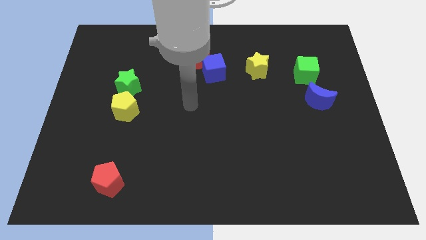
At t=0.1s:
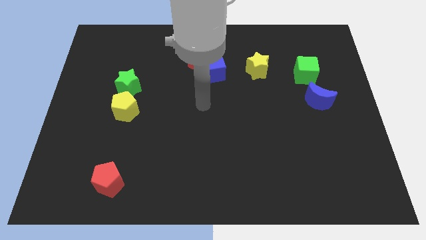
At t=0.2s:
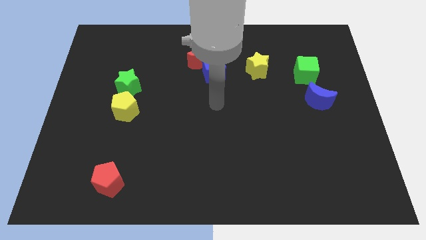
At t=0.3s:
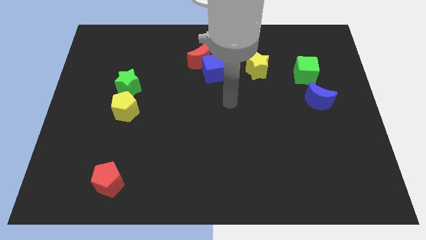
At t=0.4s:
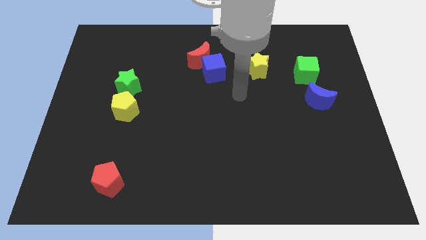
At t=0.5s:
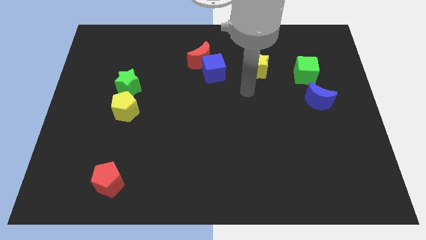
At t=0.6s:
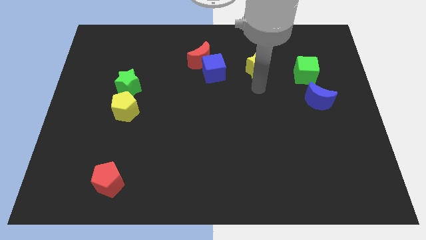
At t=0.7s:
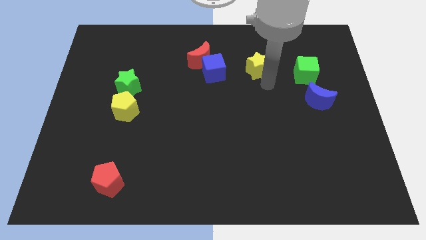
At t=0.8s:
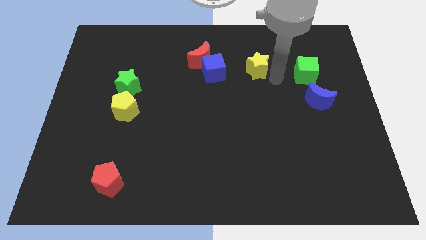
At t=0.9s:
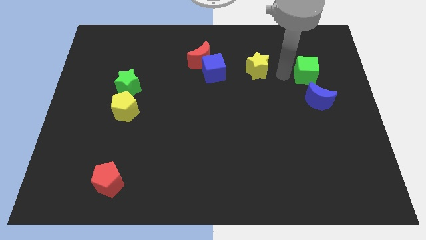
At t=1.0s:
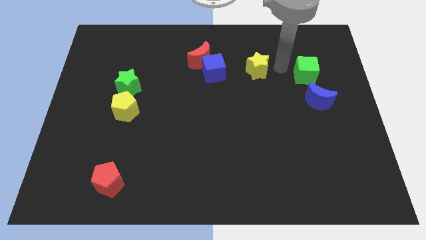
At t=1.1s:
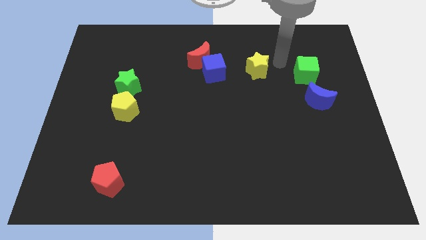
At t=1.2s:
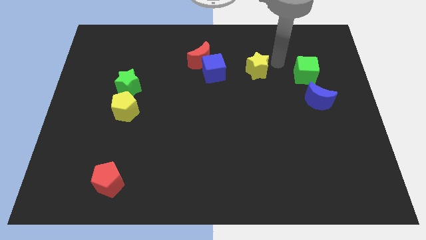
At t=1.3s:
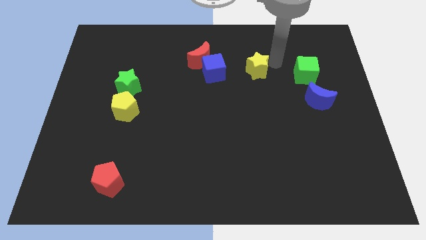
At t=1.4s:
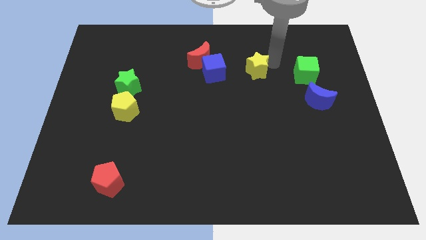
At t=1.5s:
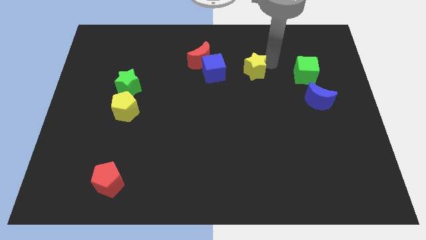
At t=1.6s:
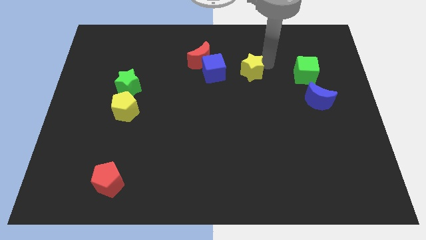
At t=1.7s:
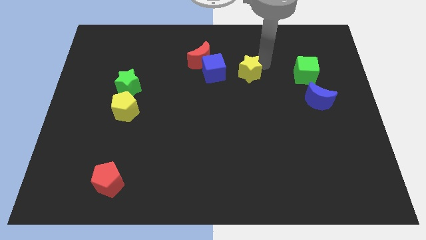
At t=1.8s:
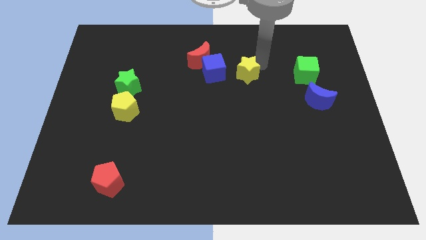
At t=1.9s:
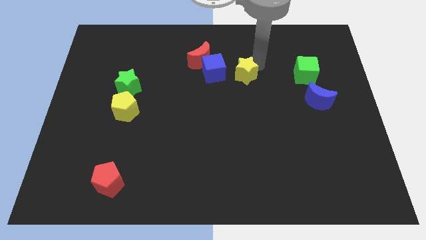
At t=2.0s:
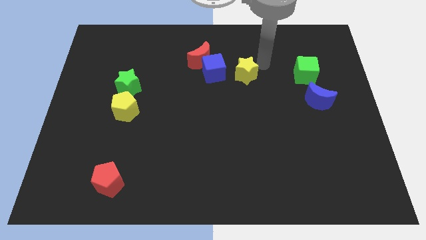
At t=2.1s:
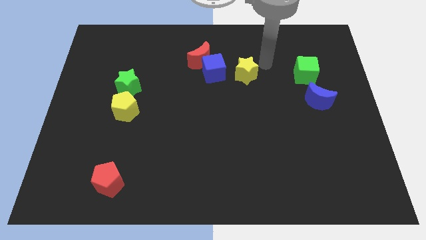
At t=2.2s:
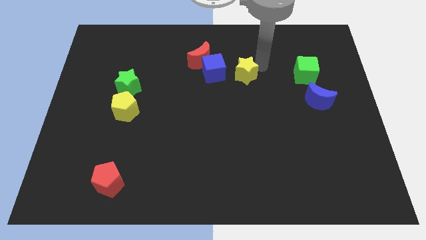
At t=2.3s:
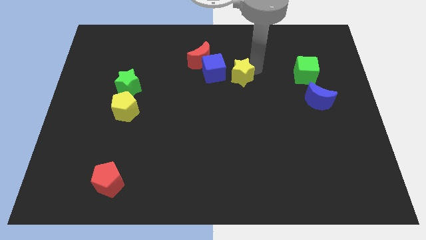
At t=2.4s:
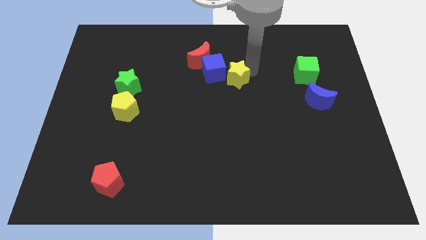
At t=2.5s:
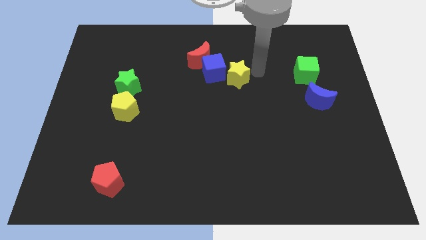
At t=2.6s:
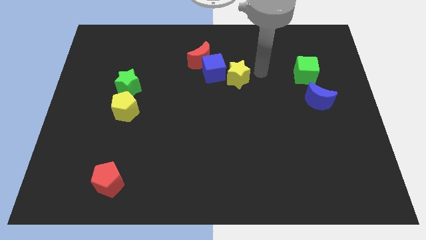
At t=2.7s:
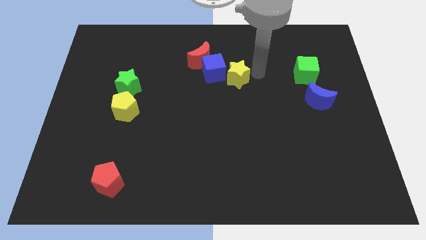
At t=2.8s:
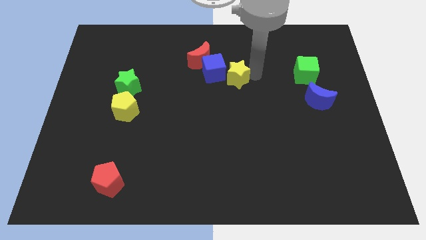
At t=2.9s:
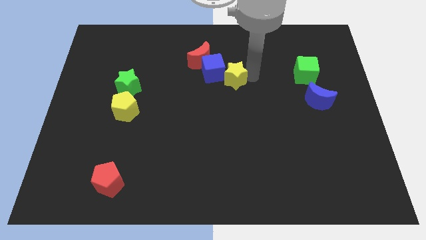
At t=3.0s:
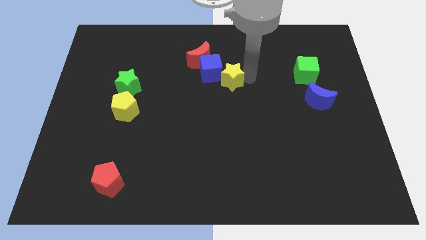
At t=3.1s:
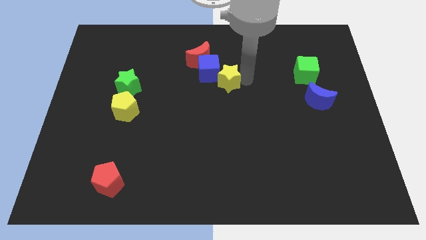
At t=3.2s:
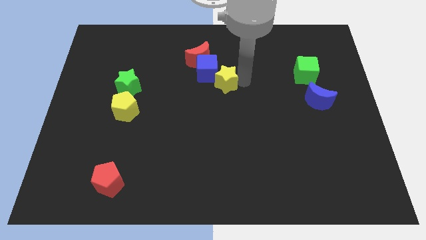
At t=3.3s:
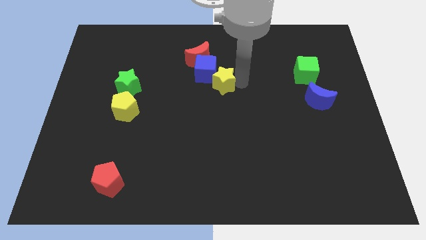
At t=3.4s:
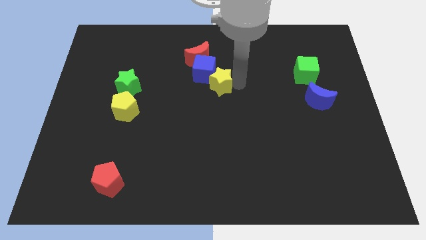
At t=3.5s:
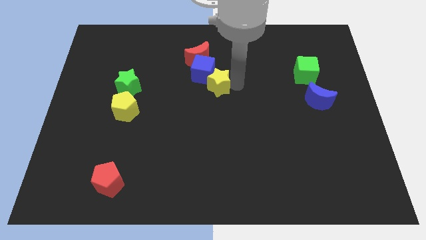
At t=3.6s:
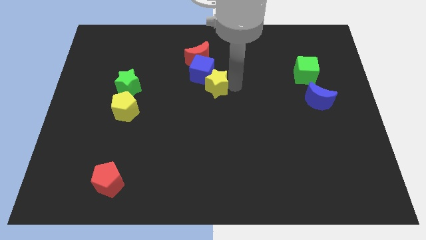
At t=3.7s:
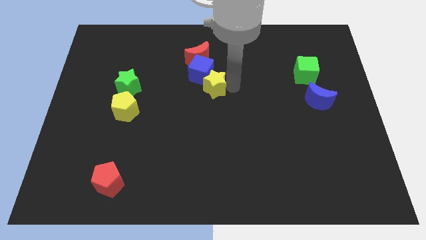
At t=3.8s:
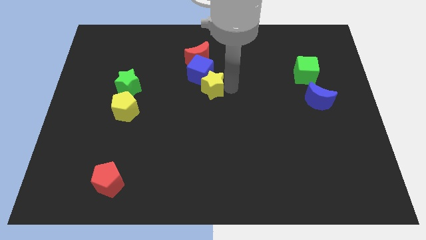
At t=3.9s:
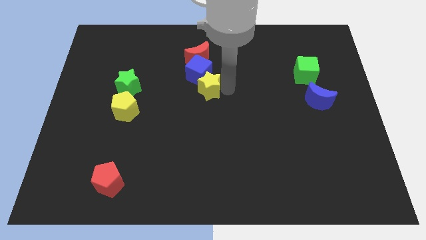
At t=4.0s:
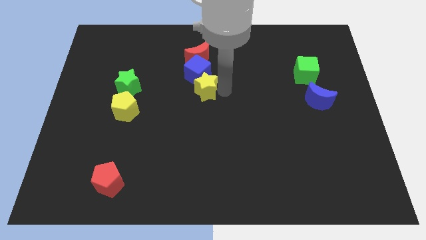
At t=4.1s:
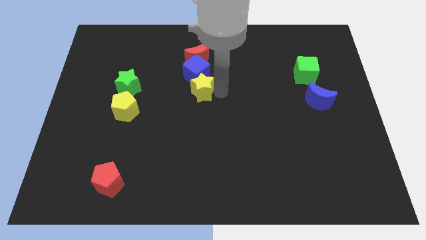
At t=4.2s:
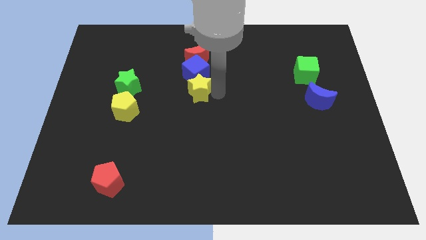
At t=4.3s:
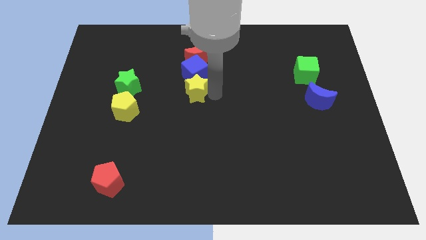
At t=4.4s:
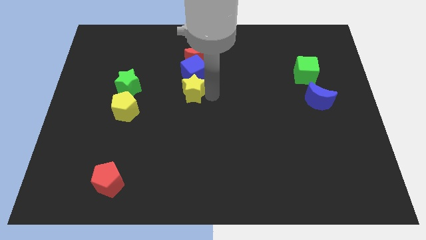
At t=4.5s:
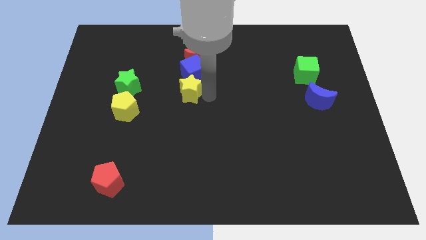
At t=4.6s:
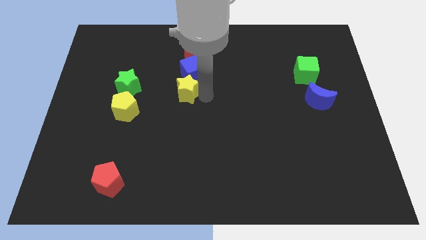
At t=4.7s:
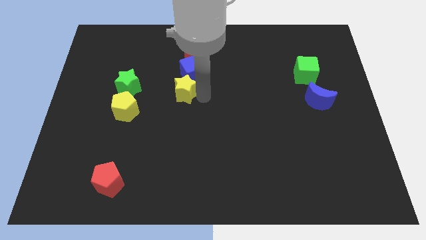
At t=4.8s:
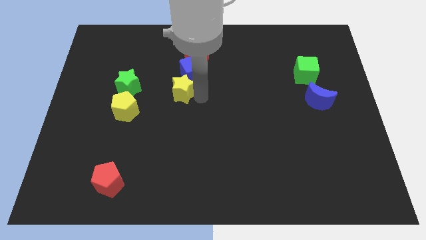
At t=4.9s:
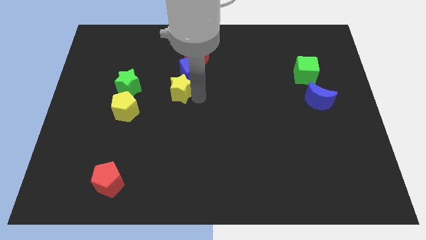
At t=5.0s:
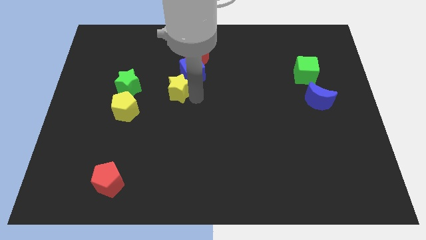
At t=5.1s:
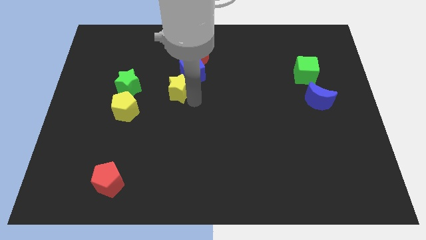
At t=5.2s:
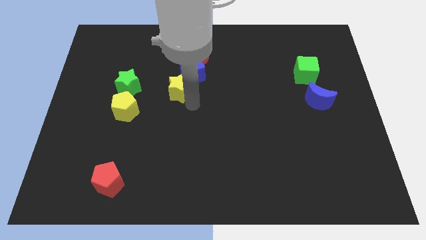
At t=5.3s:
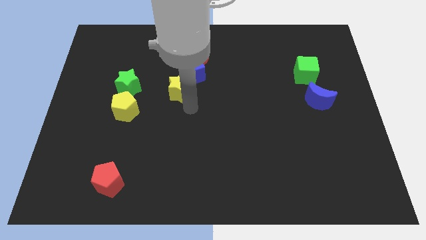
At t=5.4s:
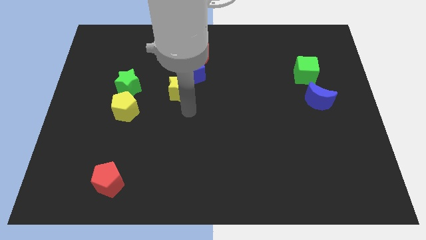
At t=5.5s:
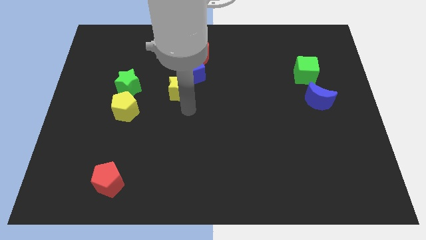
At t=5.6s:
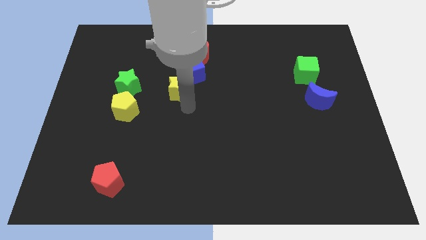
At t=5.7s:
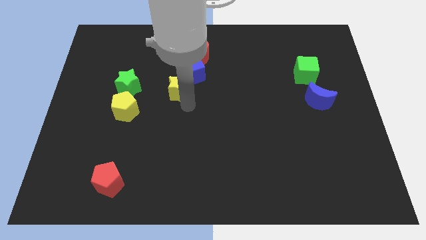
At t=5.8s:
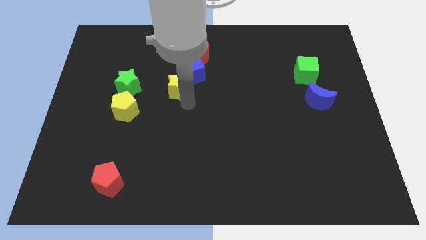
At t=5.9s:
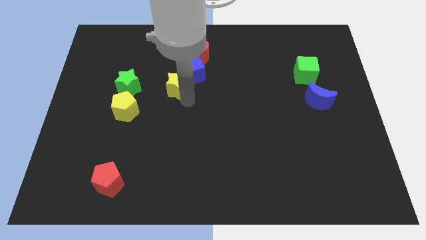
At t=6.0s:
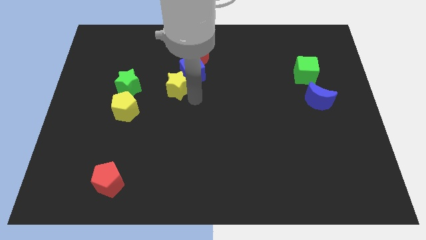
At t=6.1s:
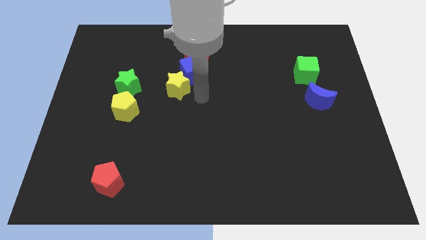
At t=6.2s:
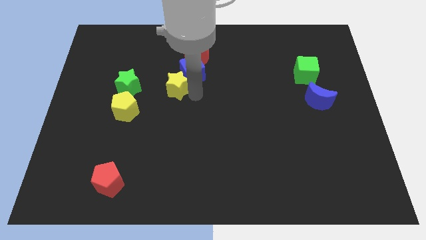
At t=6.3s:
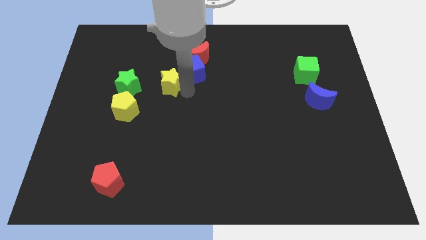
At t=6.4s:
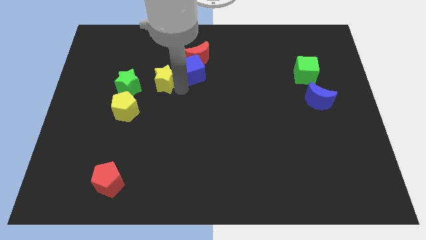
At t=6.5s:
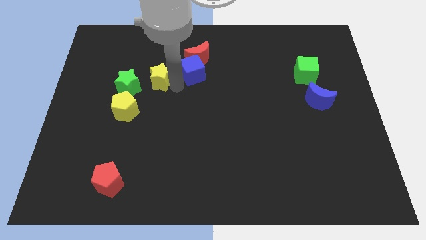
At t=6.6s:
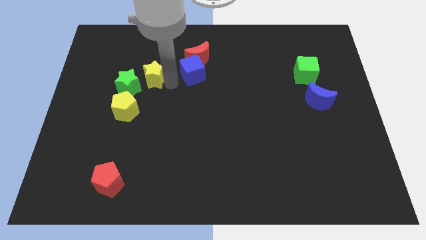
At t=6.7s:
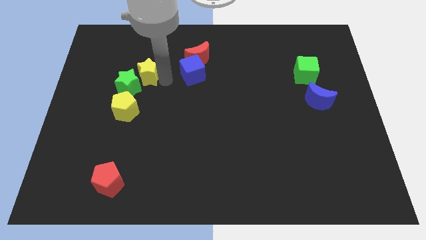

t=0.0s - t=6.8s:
move the yellow star above the yellow pentagon
